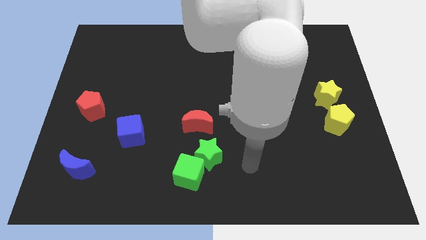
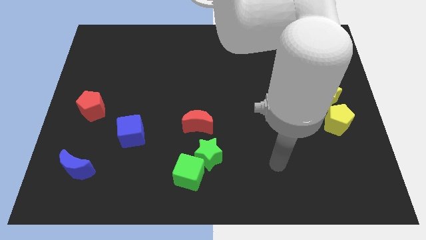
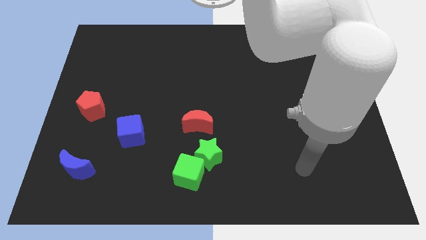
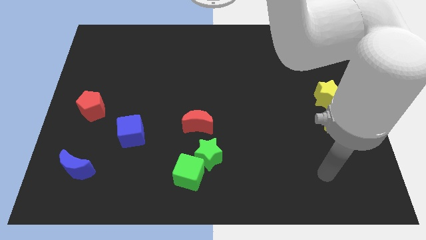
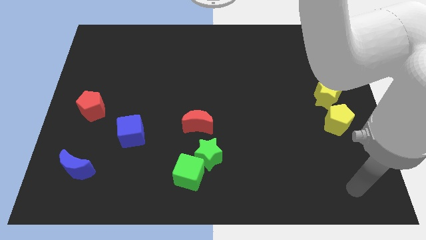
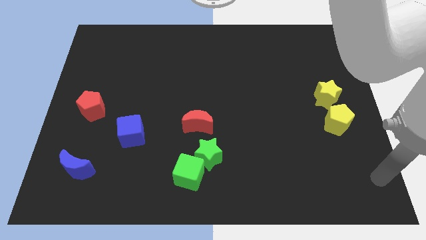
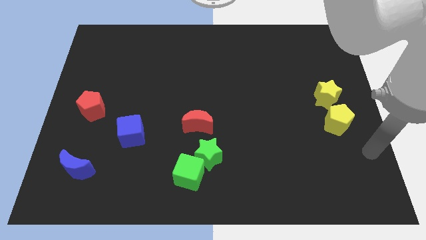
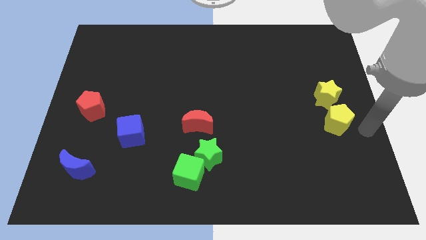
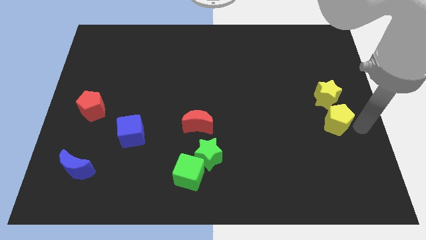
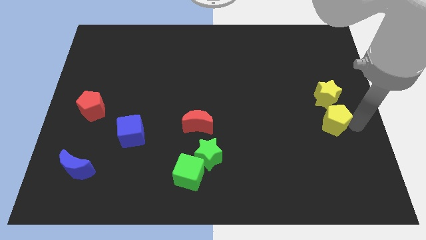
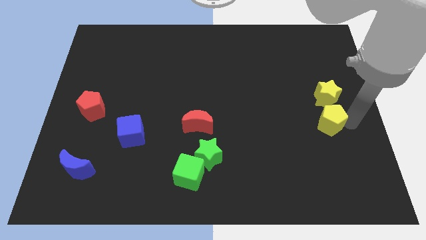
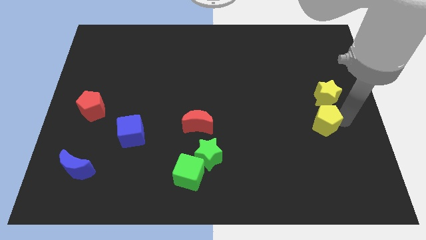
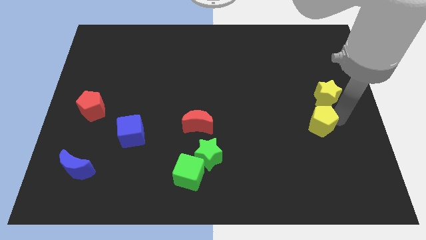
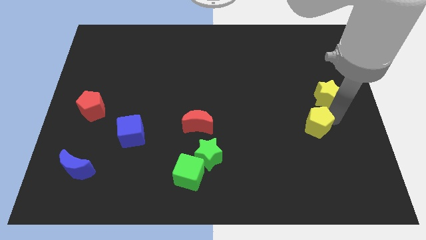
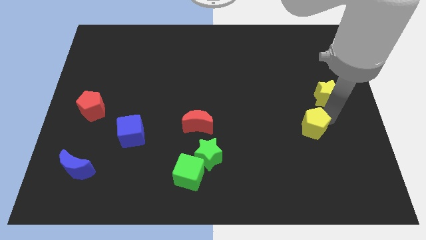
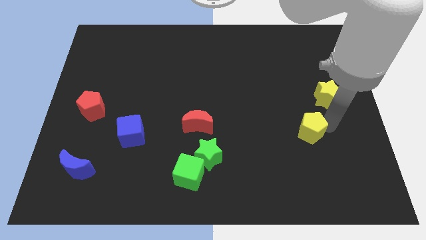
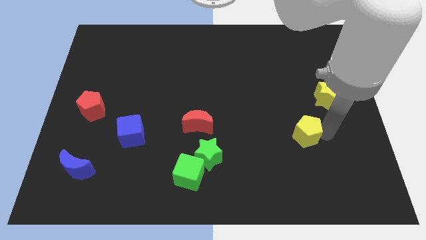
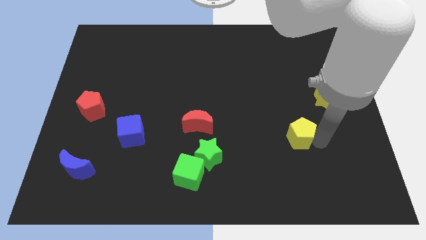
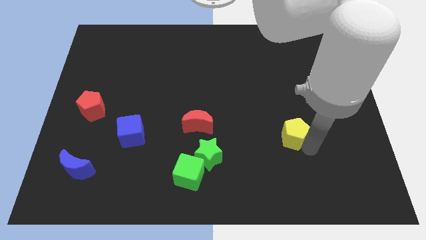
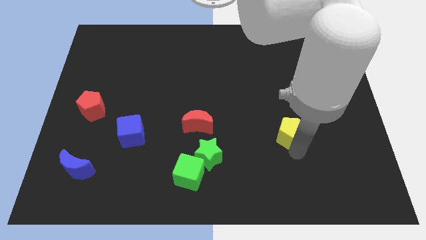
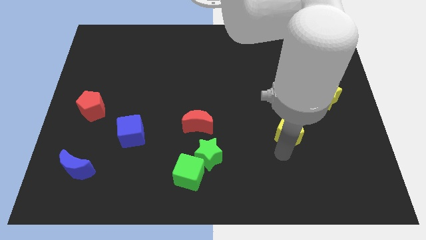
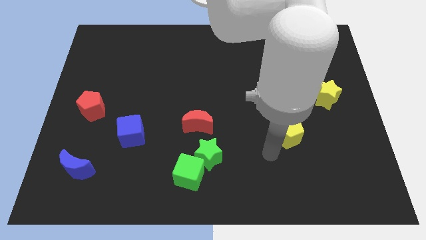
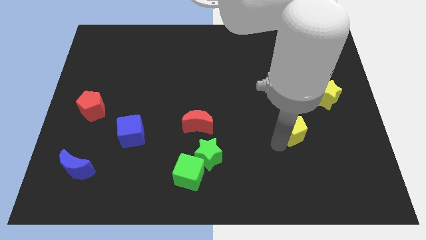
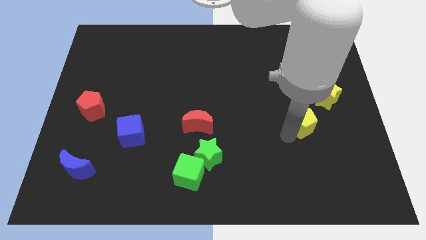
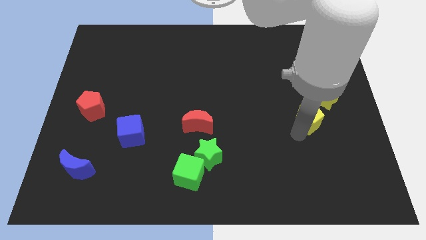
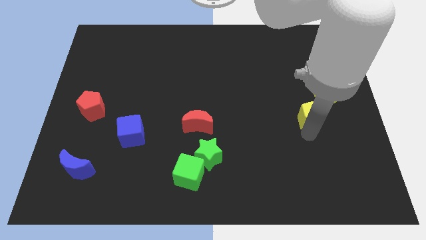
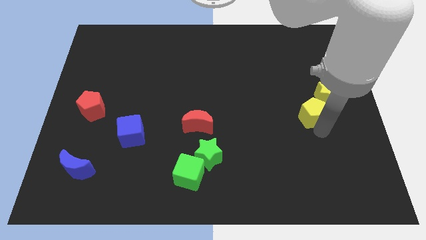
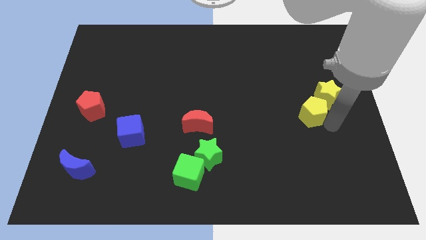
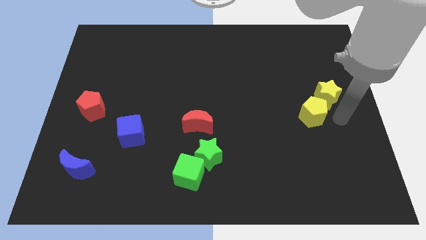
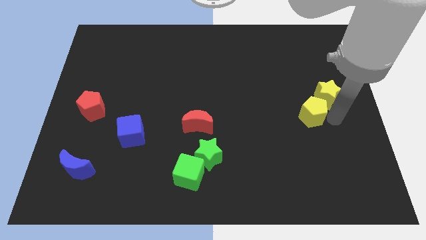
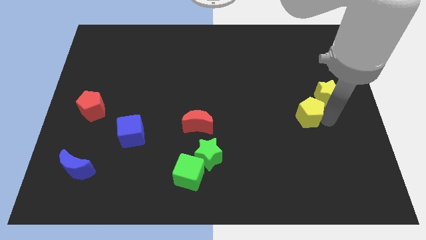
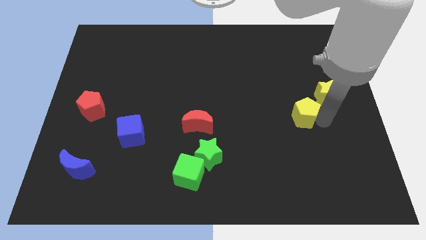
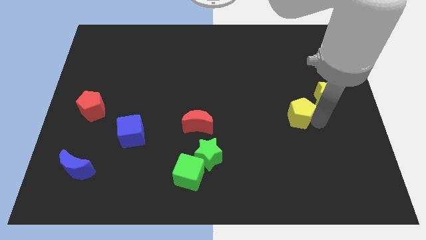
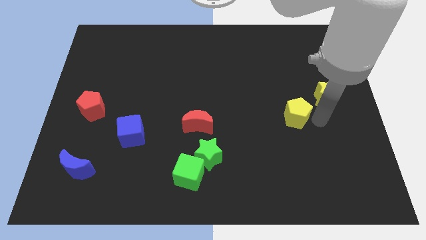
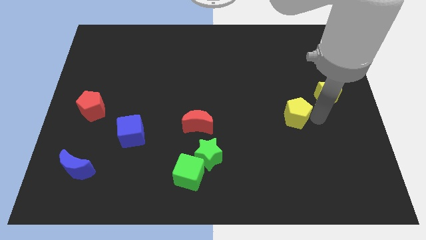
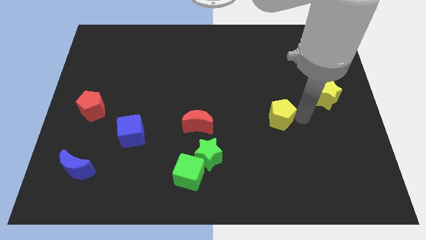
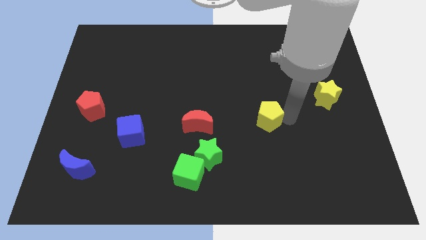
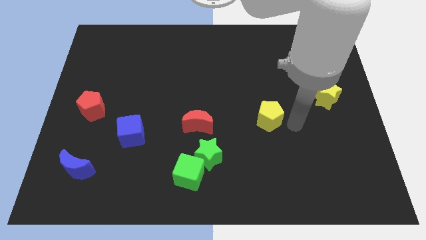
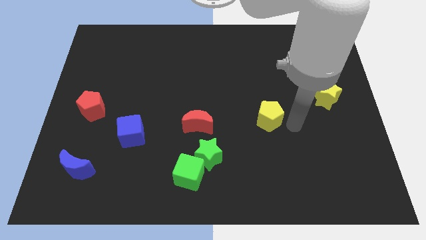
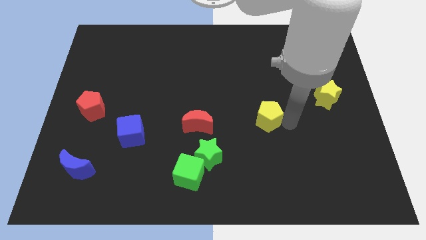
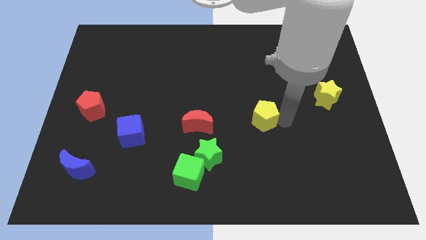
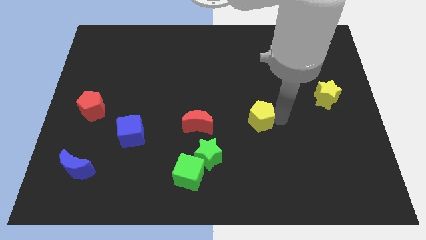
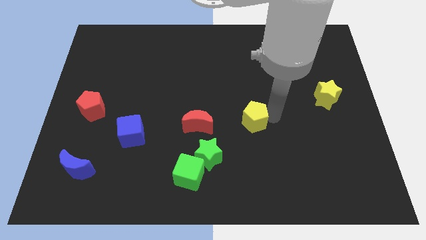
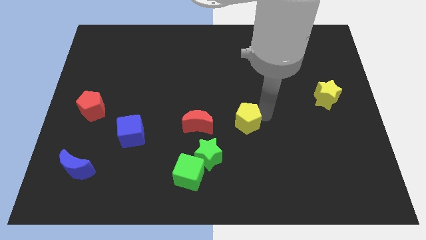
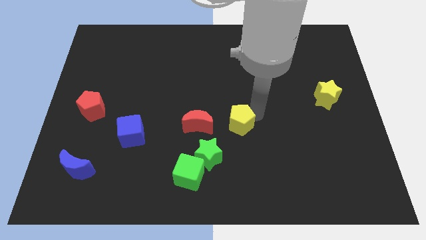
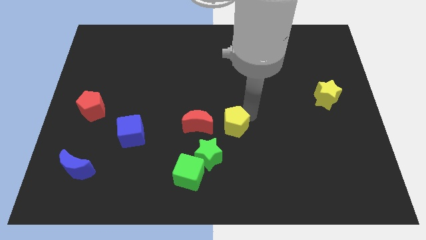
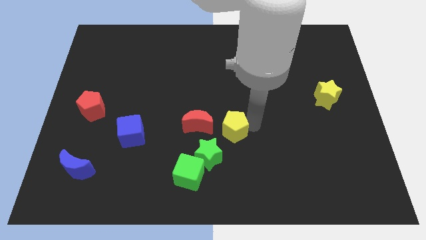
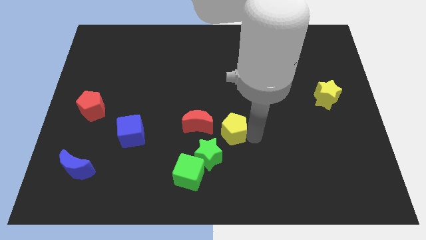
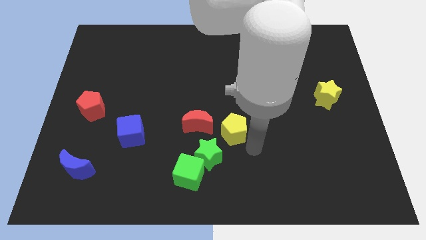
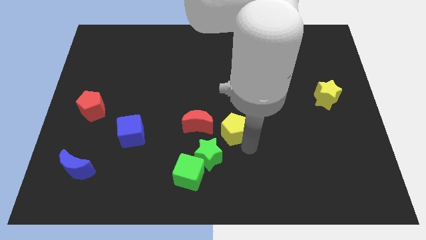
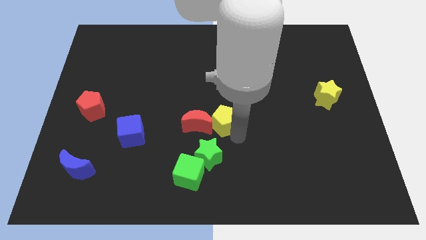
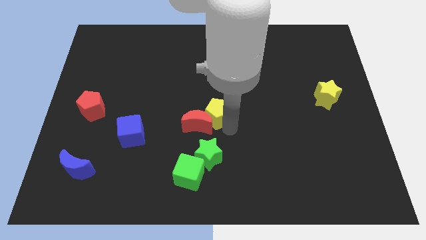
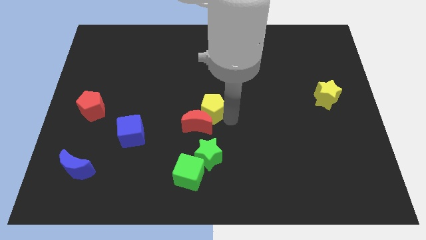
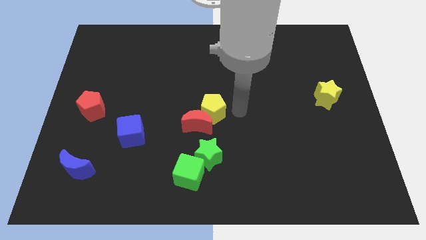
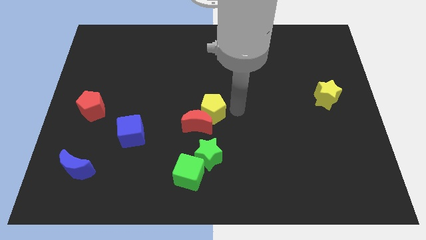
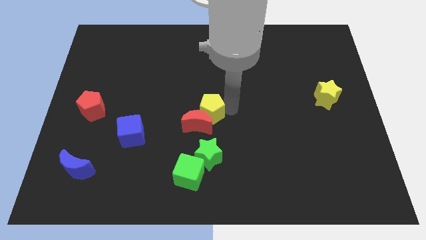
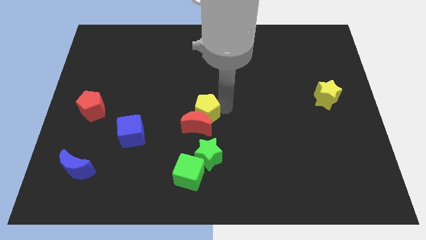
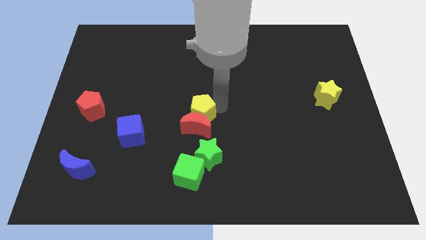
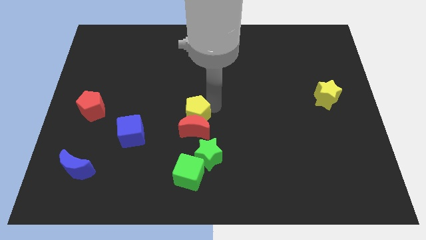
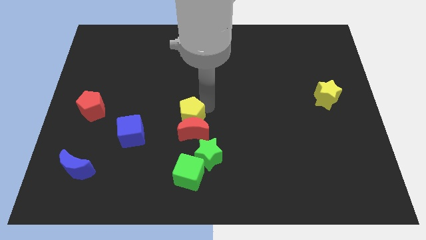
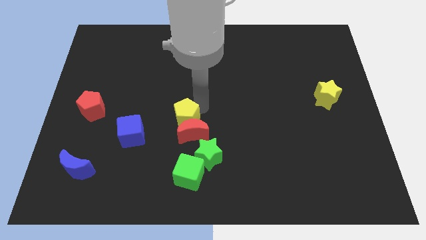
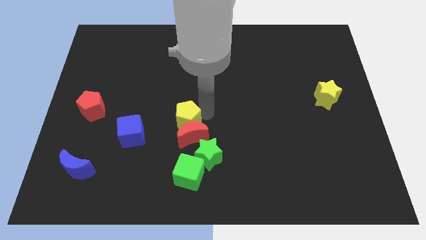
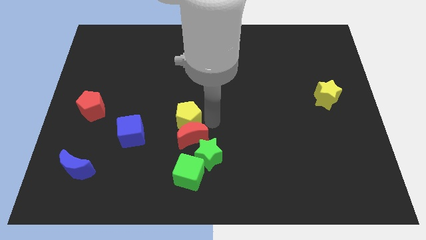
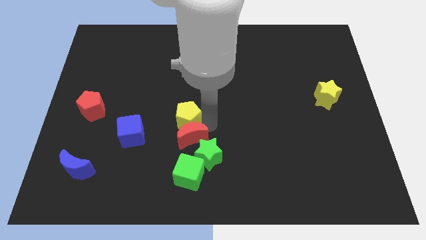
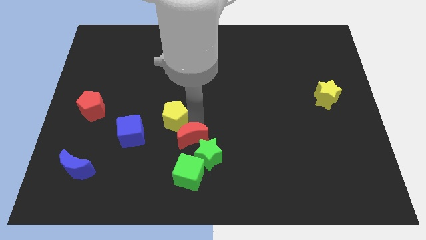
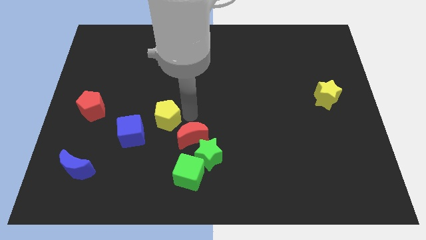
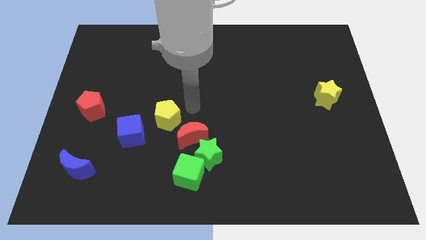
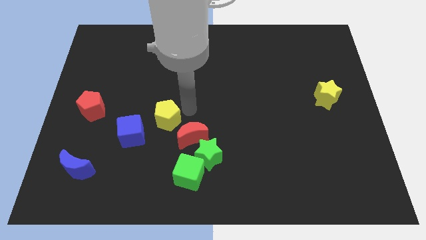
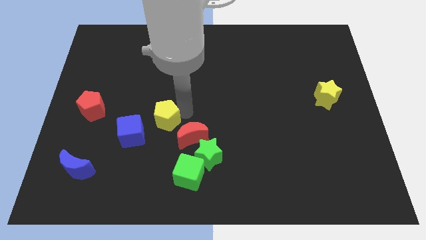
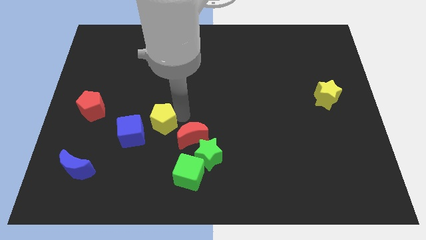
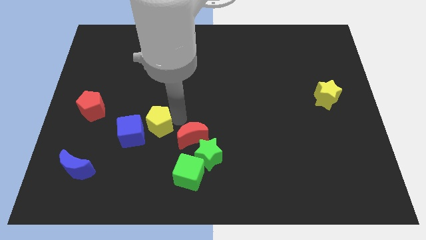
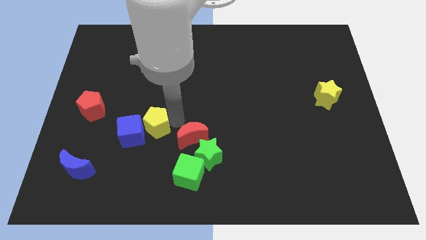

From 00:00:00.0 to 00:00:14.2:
slide the yellow pentagon close to the blue cube
